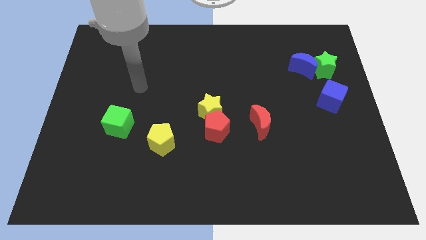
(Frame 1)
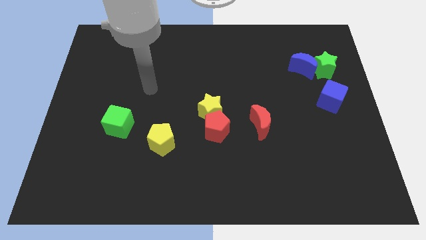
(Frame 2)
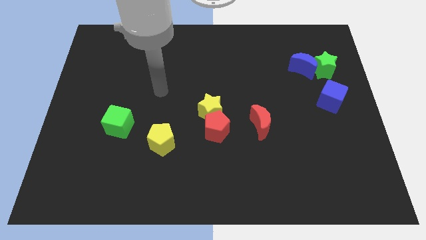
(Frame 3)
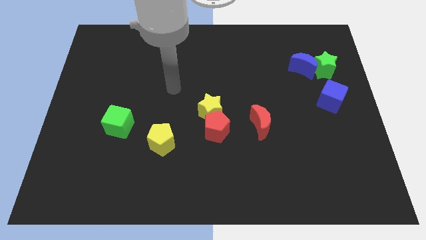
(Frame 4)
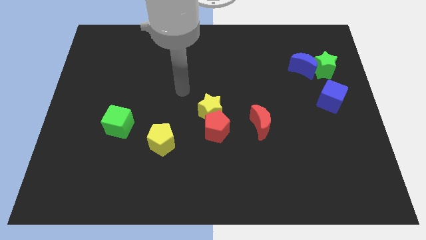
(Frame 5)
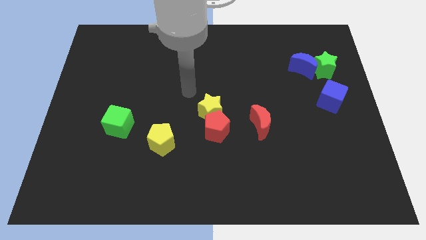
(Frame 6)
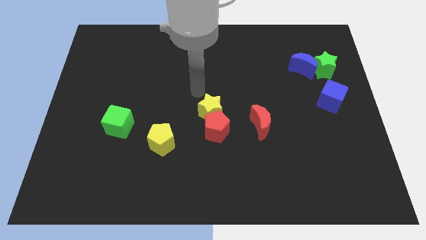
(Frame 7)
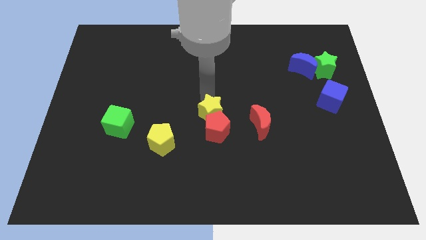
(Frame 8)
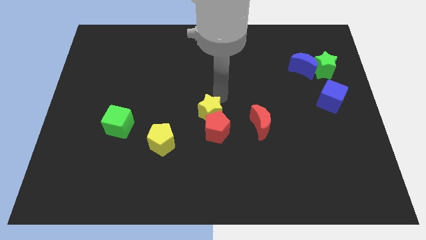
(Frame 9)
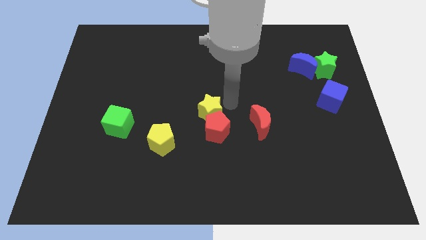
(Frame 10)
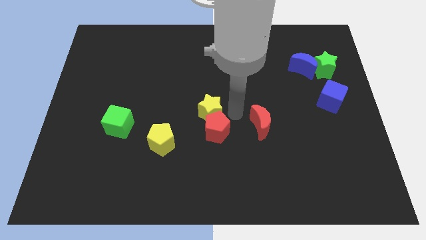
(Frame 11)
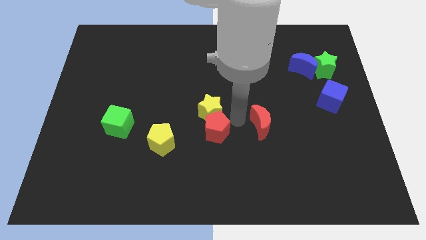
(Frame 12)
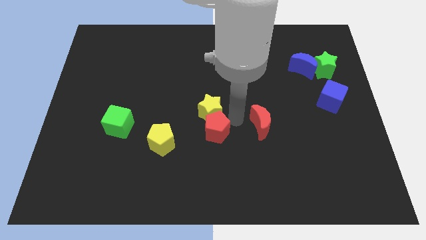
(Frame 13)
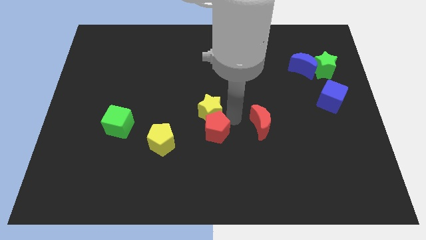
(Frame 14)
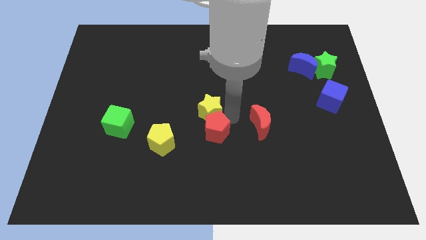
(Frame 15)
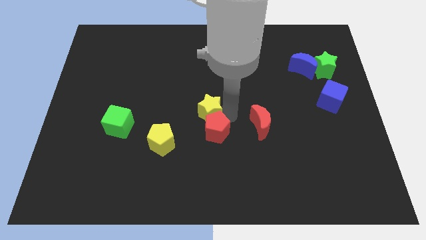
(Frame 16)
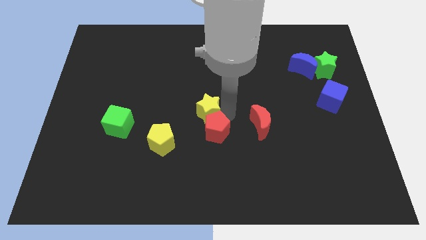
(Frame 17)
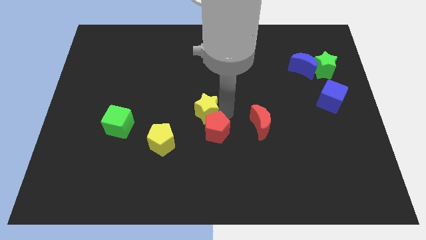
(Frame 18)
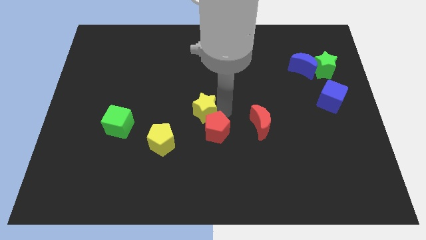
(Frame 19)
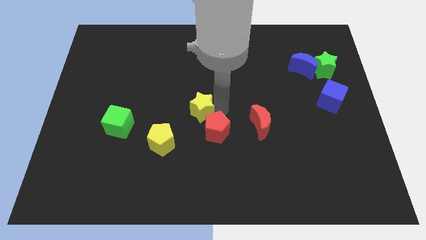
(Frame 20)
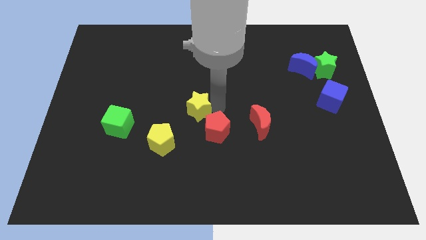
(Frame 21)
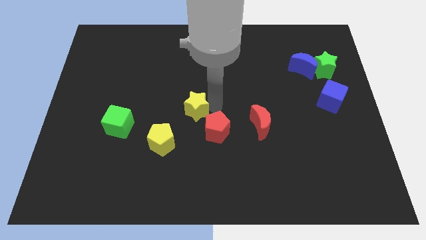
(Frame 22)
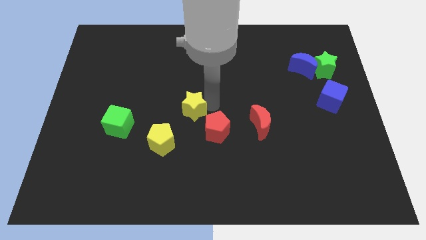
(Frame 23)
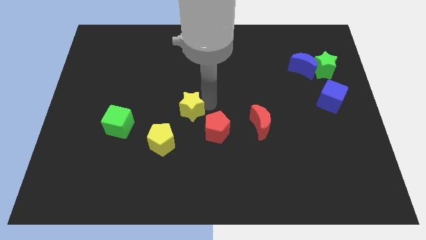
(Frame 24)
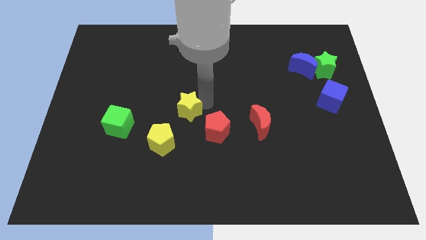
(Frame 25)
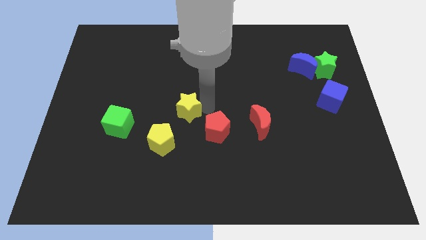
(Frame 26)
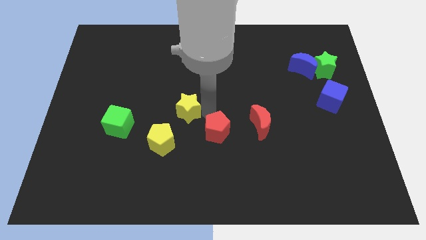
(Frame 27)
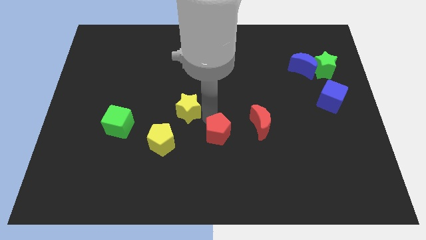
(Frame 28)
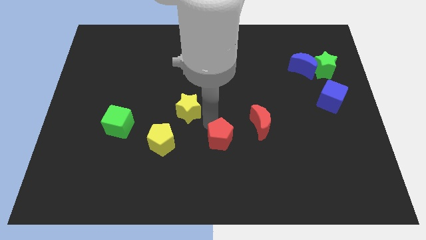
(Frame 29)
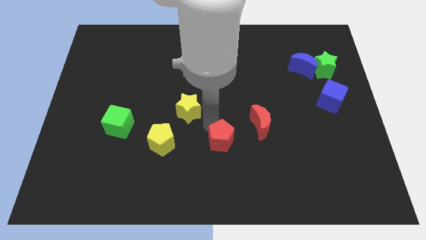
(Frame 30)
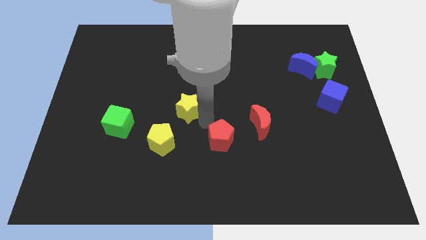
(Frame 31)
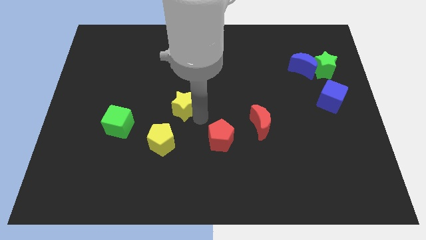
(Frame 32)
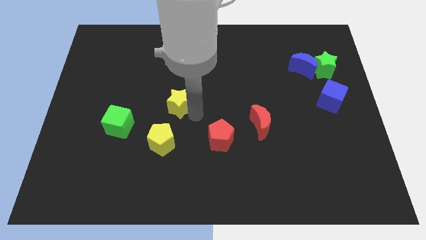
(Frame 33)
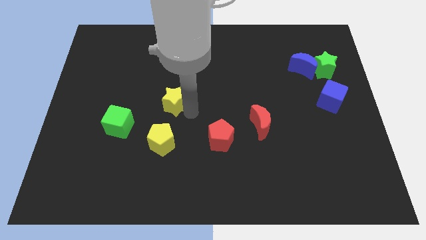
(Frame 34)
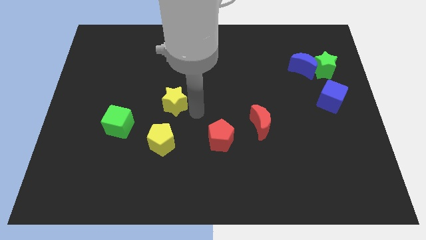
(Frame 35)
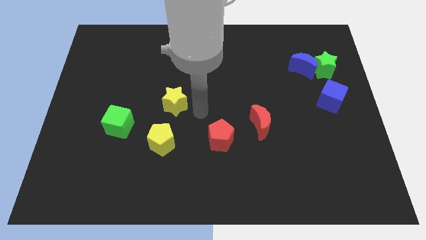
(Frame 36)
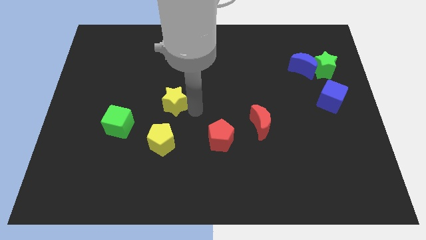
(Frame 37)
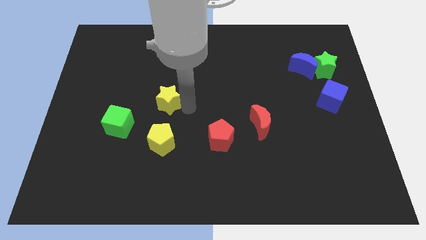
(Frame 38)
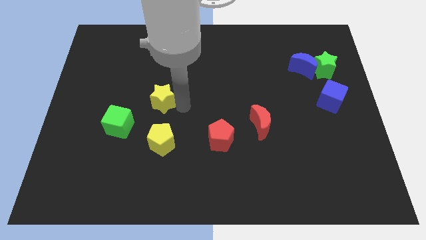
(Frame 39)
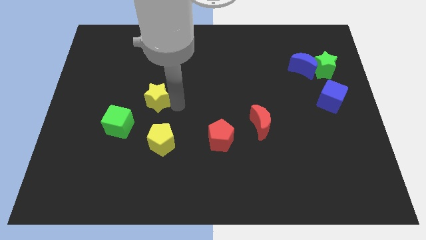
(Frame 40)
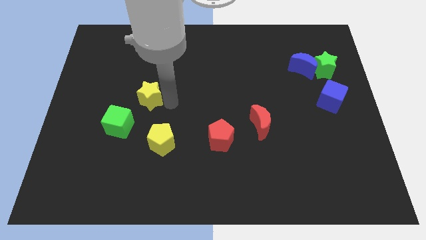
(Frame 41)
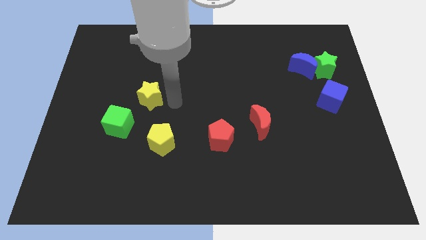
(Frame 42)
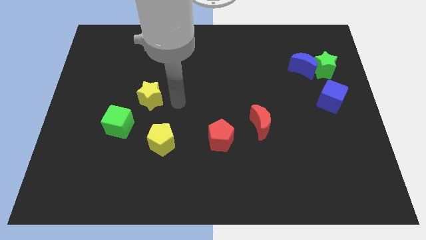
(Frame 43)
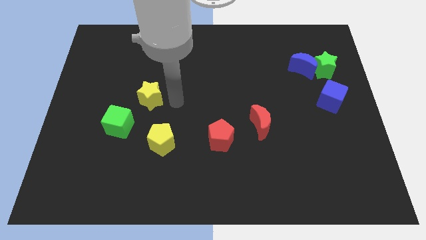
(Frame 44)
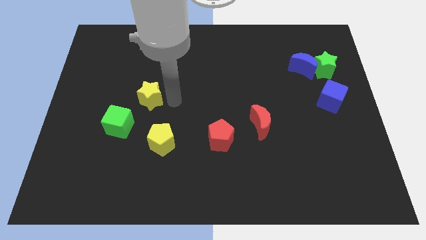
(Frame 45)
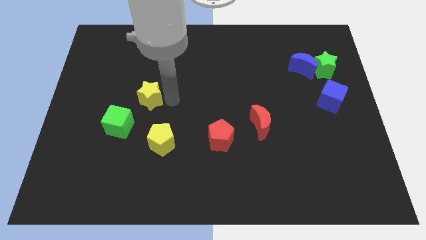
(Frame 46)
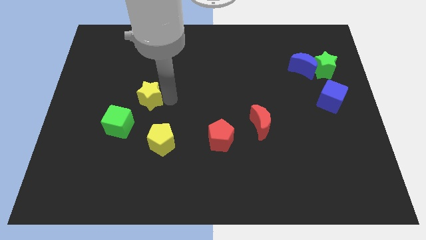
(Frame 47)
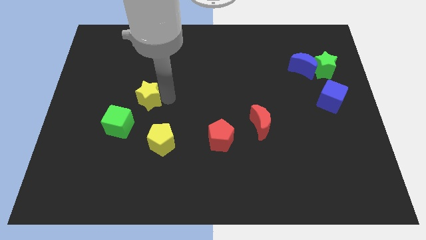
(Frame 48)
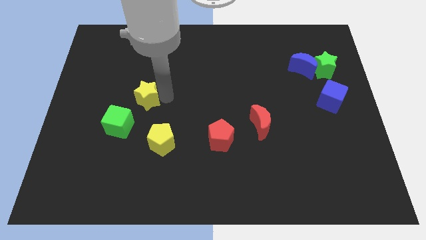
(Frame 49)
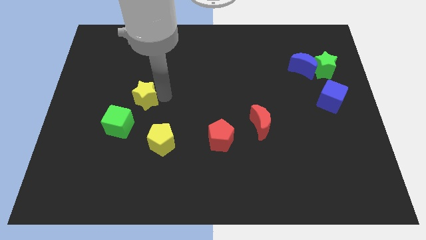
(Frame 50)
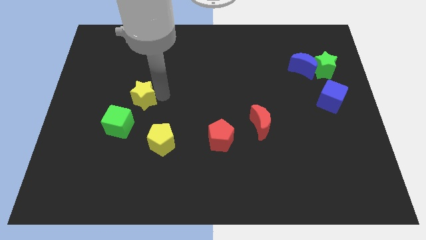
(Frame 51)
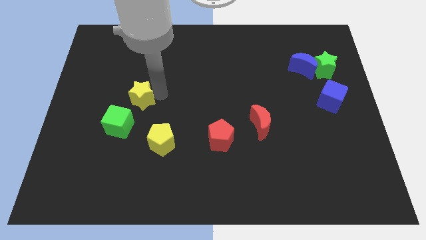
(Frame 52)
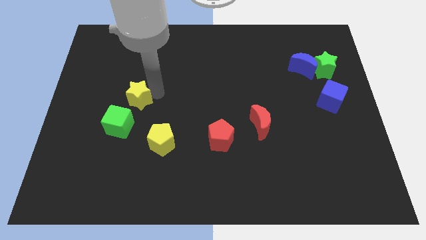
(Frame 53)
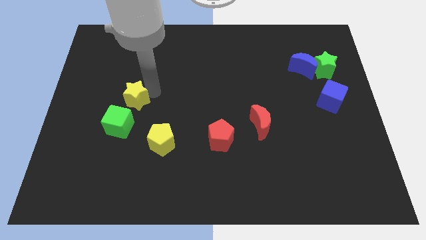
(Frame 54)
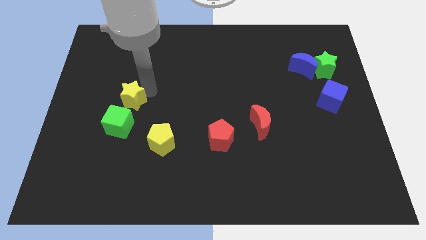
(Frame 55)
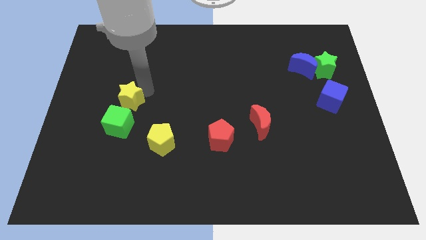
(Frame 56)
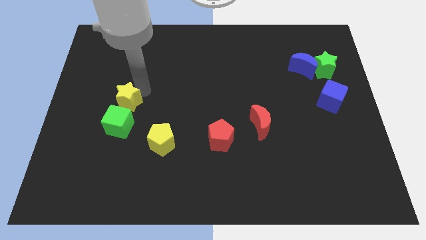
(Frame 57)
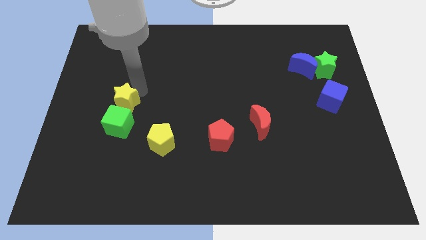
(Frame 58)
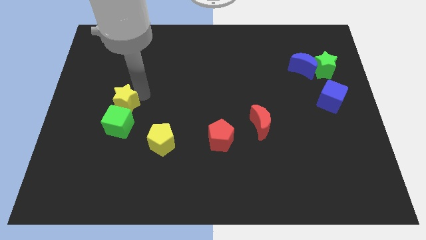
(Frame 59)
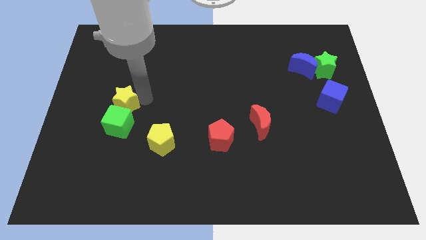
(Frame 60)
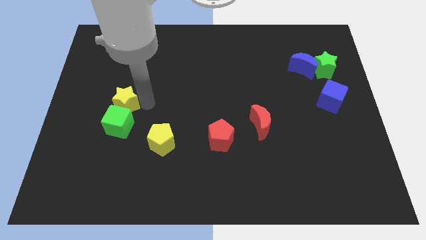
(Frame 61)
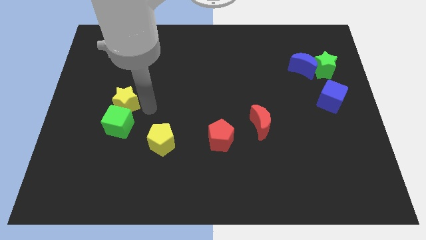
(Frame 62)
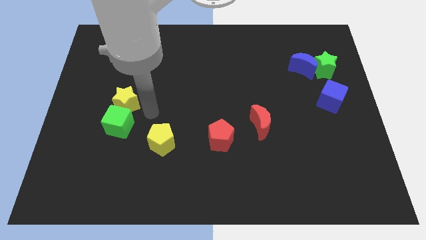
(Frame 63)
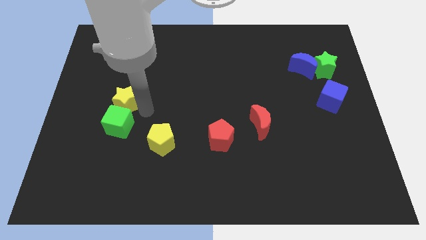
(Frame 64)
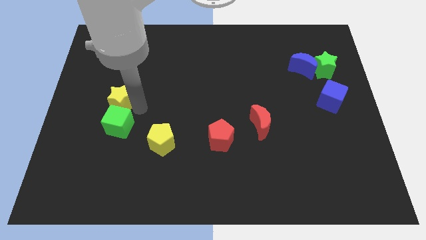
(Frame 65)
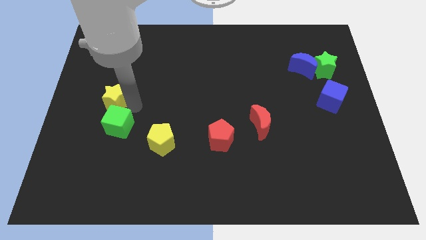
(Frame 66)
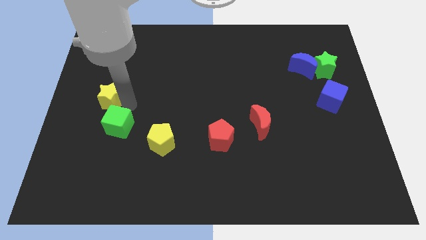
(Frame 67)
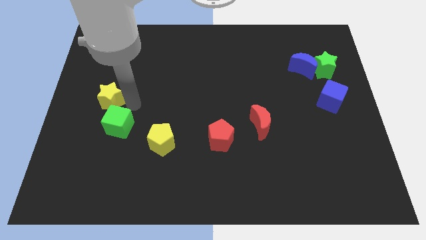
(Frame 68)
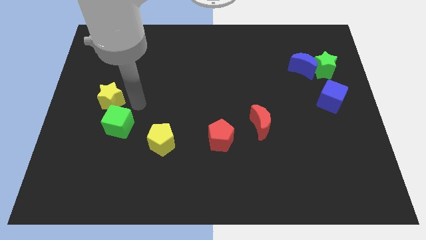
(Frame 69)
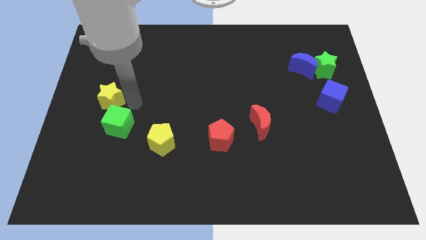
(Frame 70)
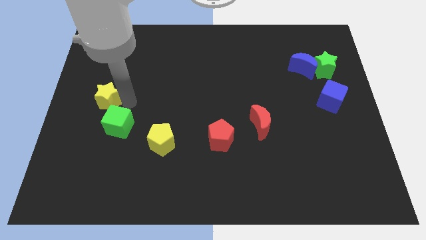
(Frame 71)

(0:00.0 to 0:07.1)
put the yellow star to the left side of the board
